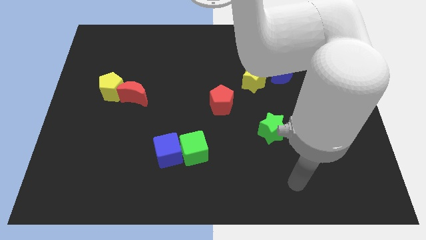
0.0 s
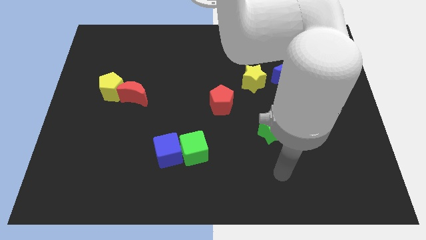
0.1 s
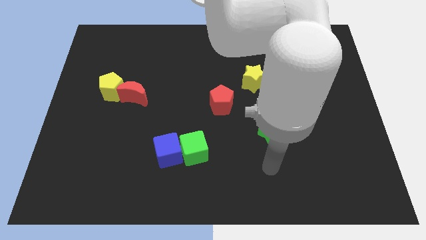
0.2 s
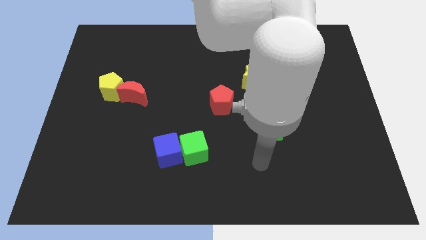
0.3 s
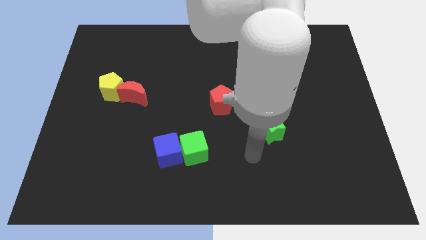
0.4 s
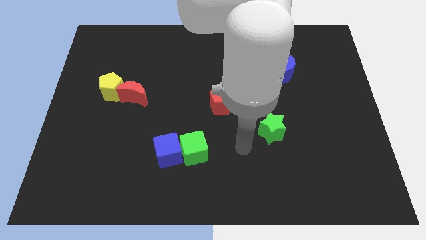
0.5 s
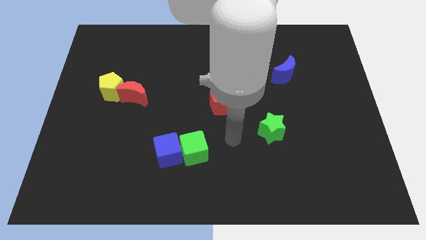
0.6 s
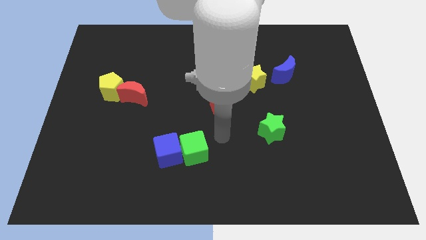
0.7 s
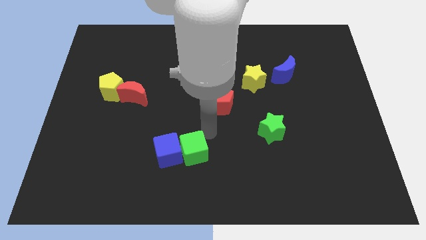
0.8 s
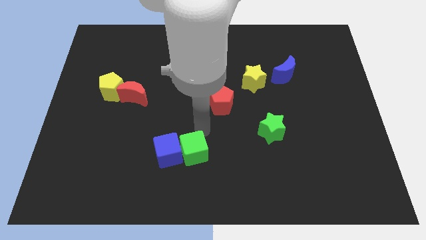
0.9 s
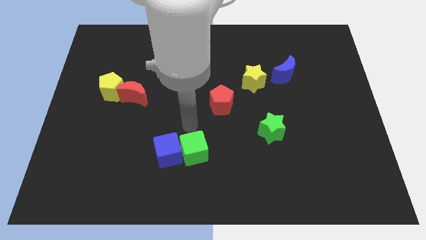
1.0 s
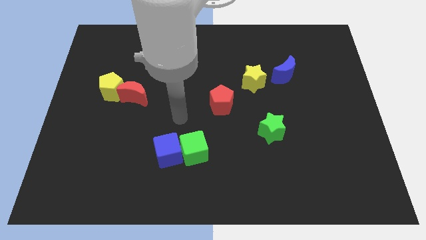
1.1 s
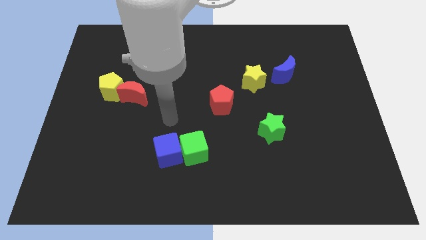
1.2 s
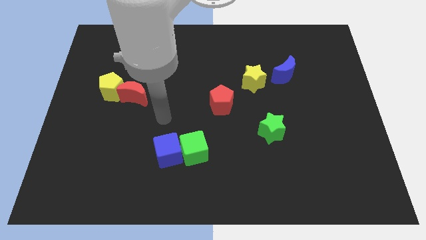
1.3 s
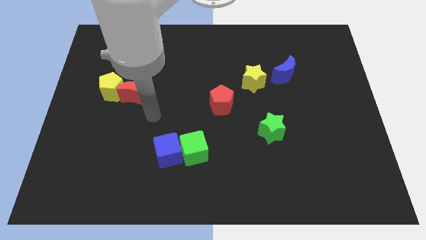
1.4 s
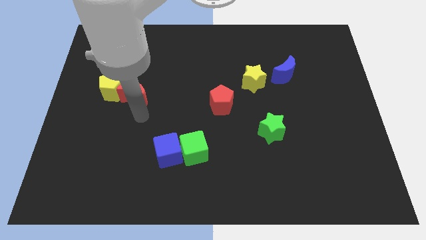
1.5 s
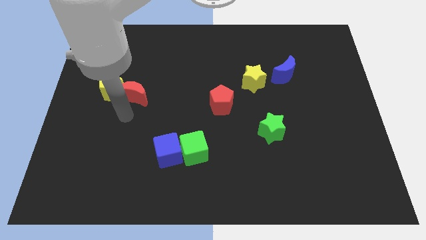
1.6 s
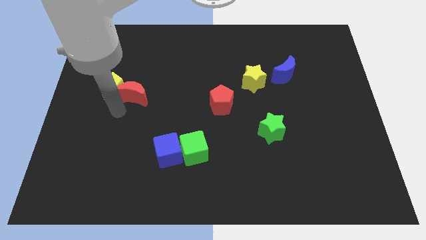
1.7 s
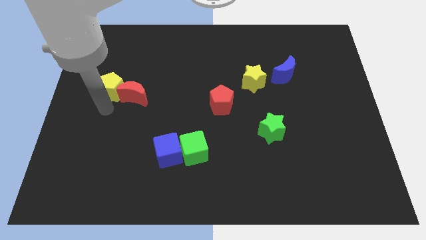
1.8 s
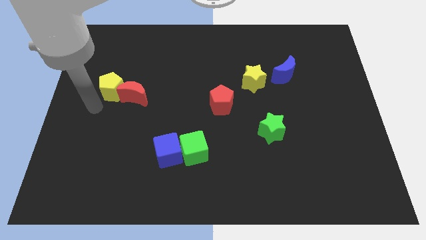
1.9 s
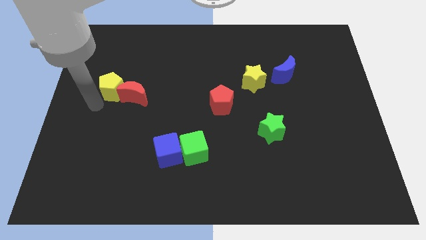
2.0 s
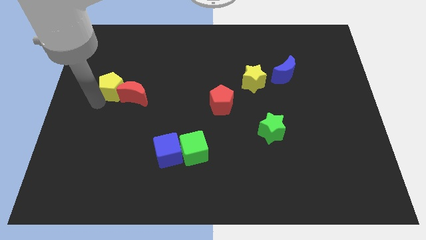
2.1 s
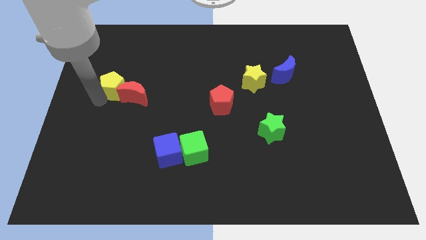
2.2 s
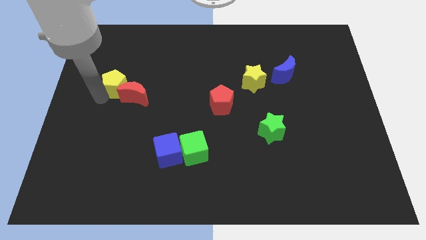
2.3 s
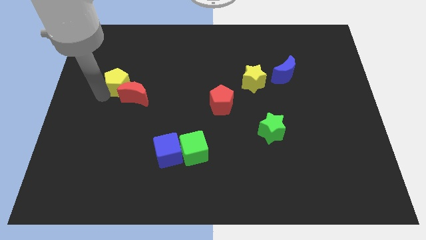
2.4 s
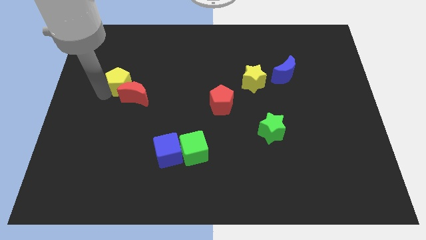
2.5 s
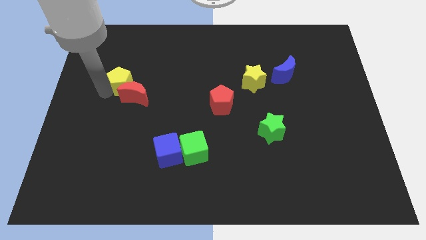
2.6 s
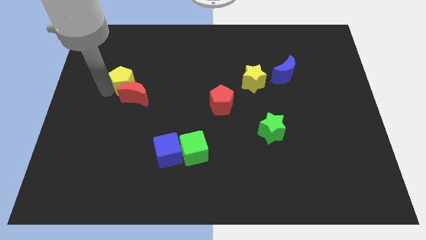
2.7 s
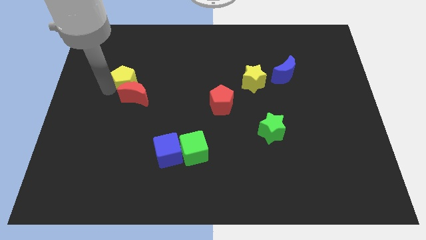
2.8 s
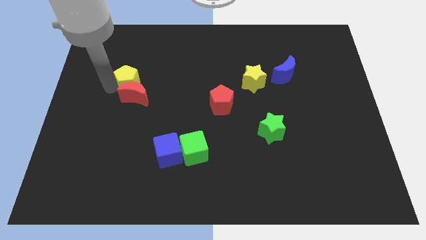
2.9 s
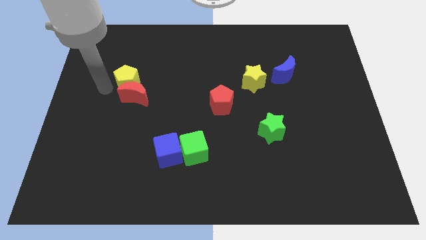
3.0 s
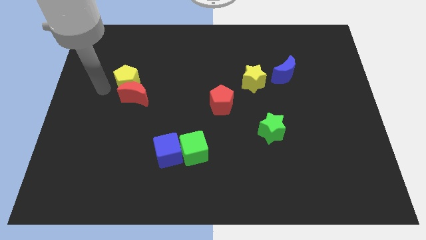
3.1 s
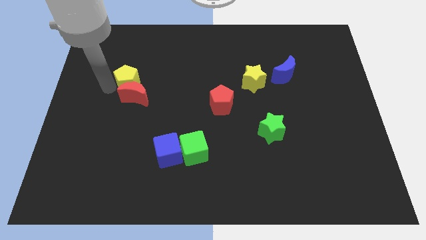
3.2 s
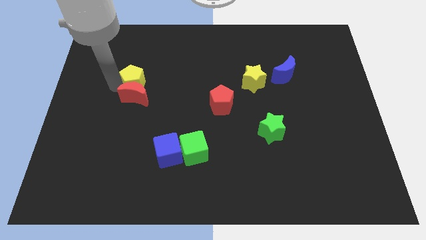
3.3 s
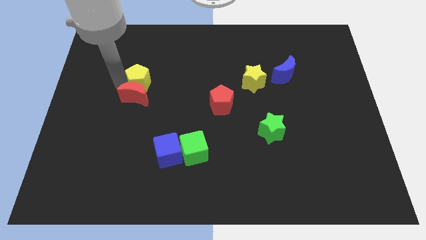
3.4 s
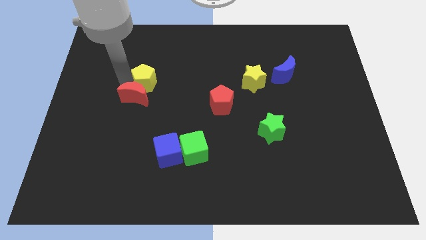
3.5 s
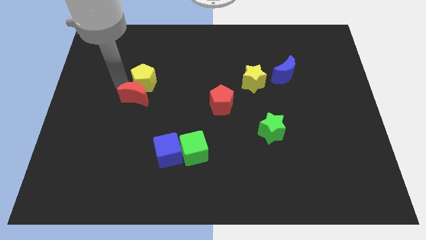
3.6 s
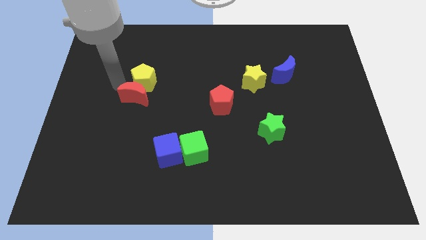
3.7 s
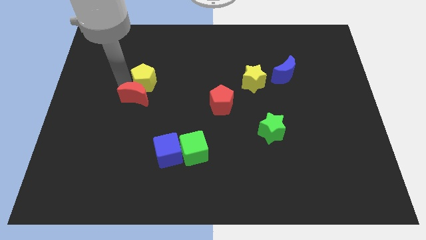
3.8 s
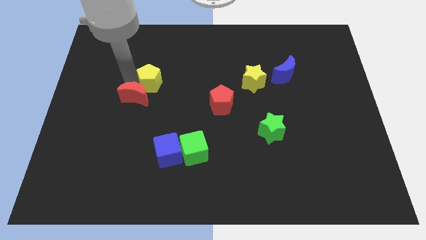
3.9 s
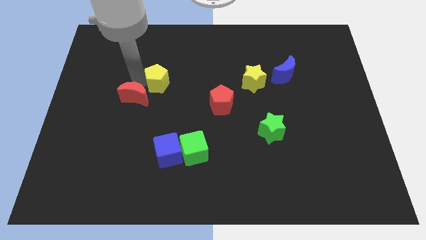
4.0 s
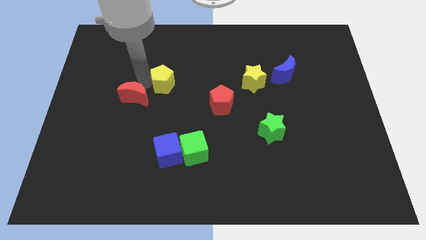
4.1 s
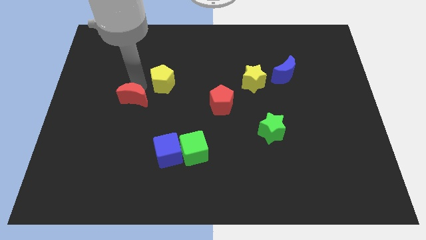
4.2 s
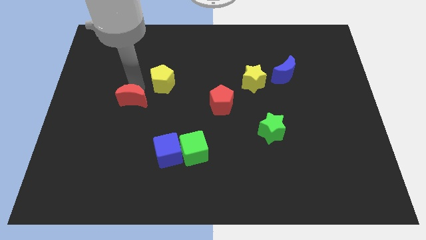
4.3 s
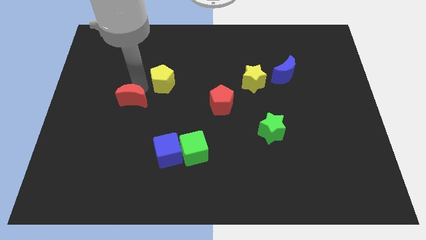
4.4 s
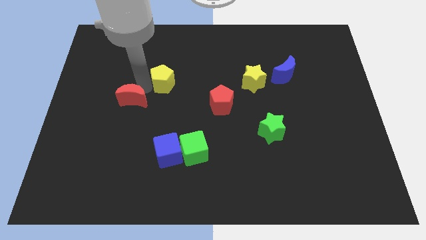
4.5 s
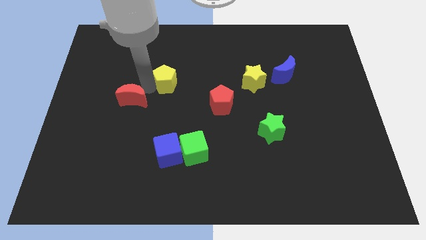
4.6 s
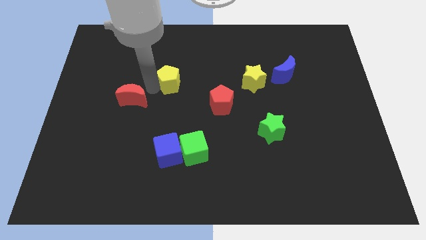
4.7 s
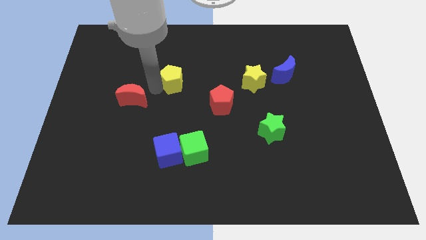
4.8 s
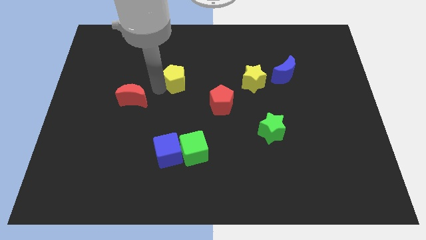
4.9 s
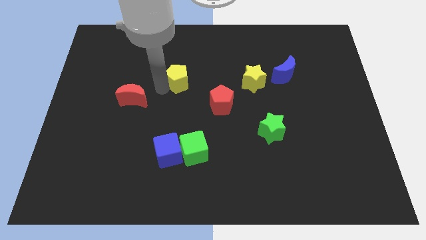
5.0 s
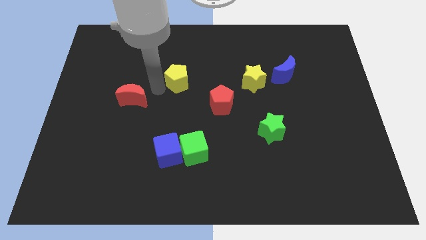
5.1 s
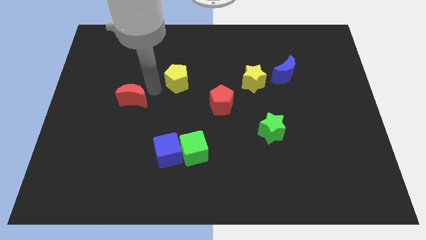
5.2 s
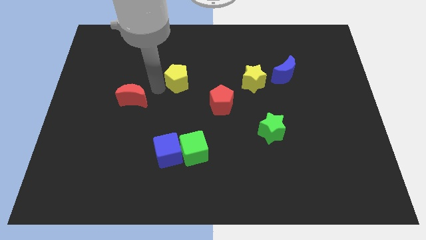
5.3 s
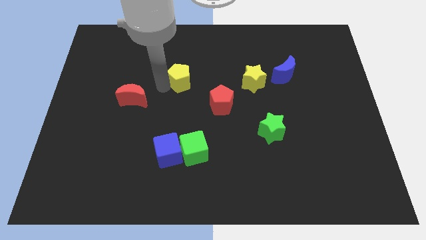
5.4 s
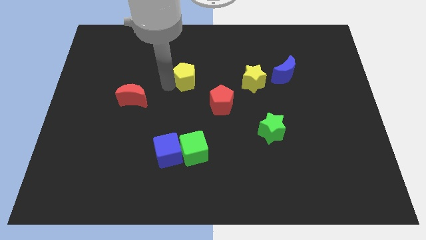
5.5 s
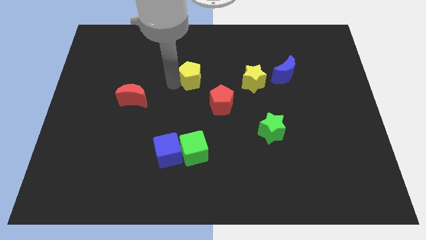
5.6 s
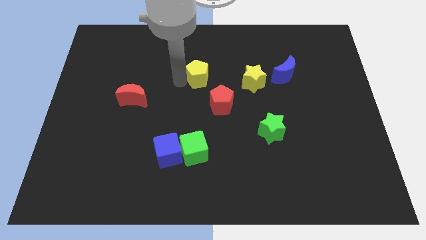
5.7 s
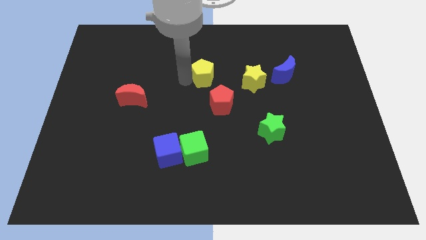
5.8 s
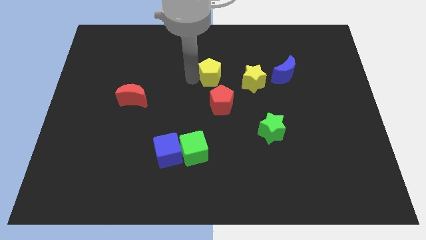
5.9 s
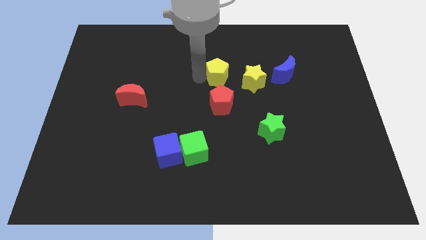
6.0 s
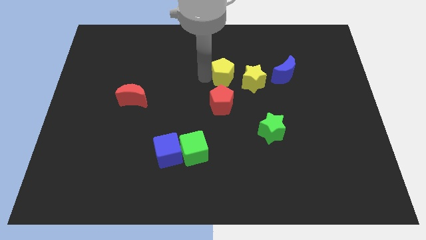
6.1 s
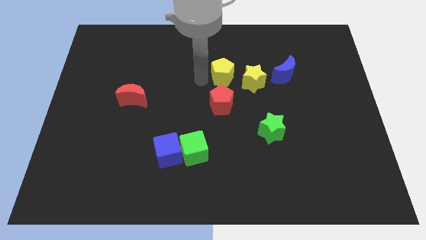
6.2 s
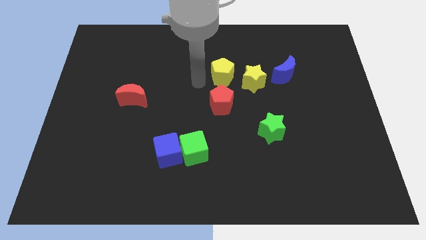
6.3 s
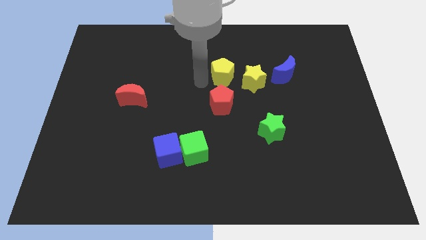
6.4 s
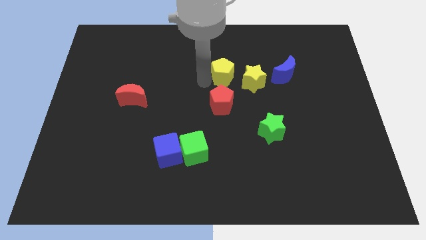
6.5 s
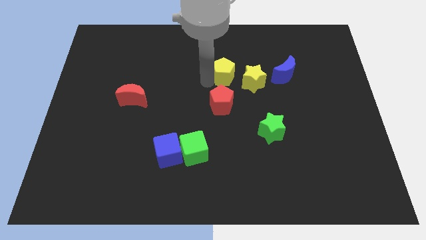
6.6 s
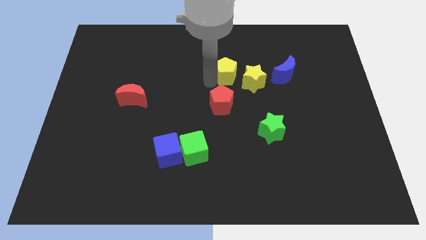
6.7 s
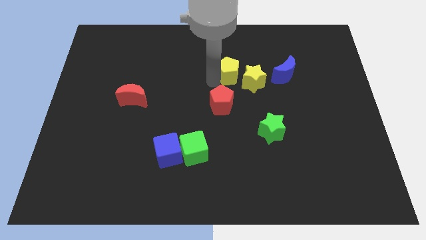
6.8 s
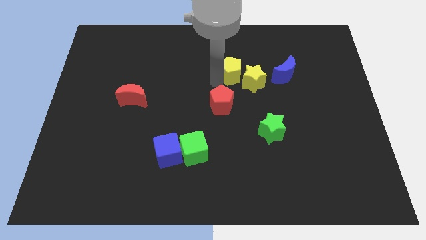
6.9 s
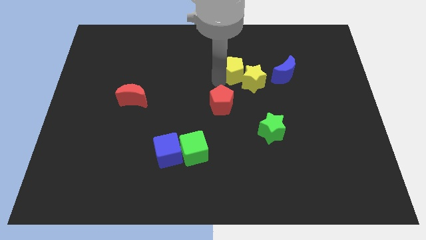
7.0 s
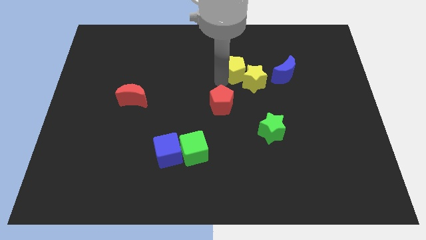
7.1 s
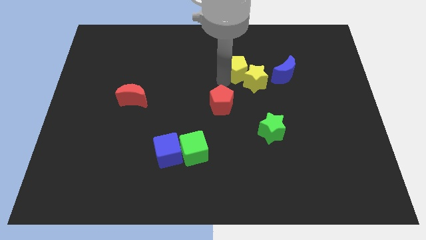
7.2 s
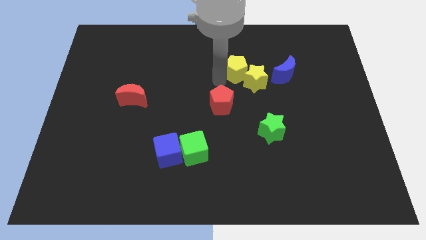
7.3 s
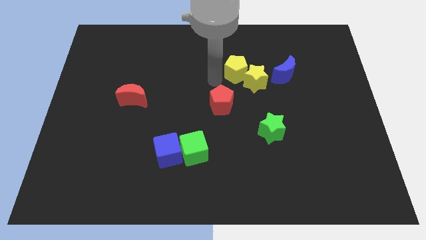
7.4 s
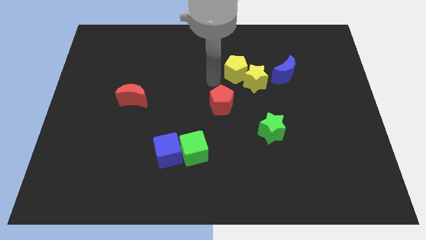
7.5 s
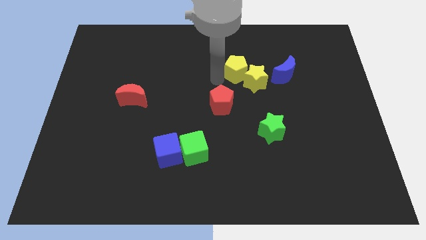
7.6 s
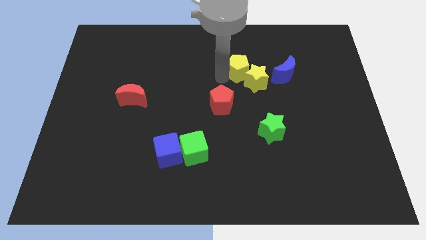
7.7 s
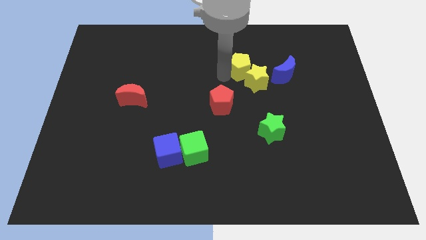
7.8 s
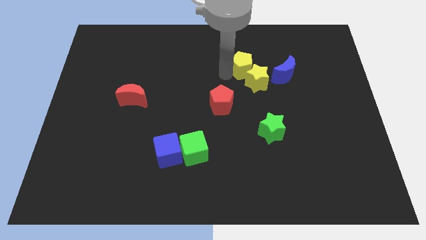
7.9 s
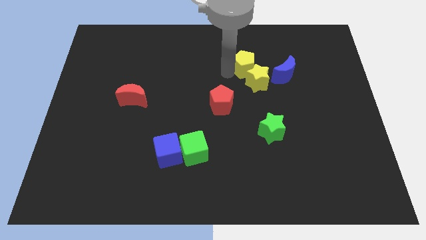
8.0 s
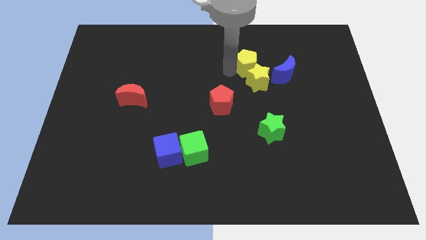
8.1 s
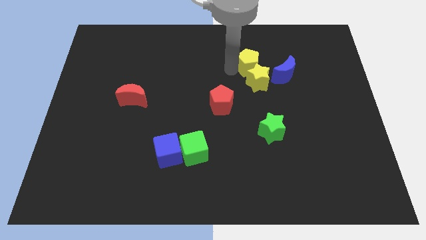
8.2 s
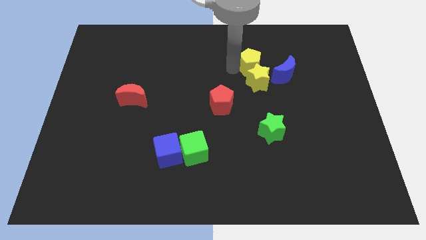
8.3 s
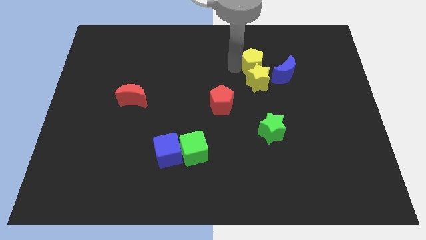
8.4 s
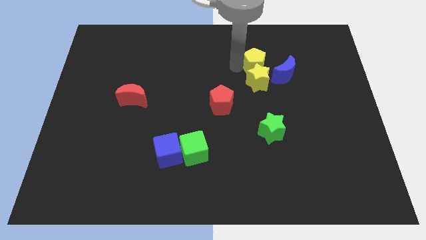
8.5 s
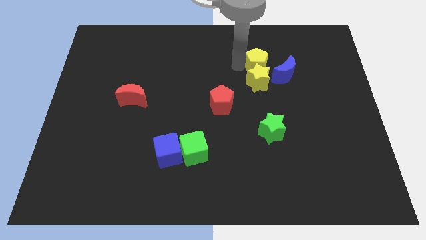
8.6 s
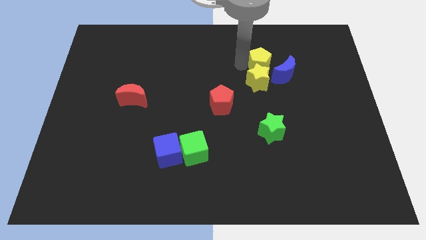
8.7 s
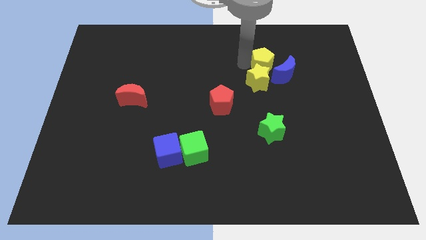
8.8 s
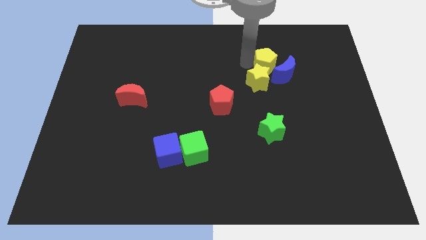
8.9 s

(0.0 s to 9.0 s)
move the yellow pentagon to the blue moon
